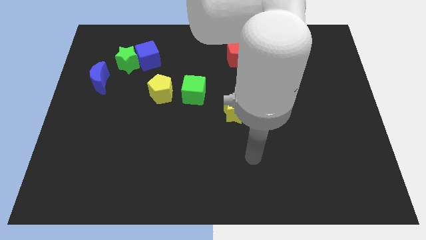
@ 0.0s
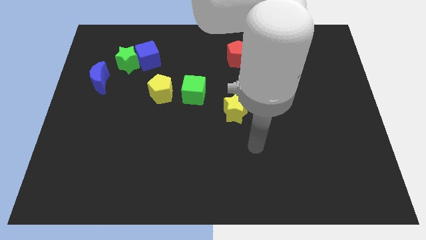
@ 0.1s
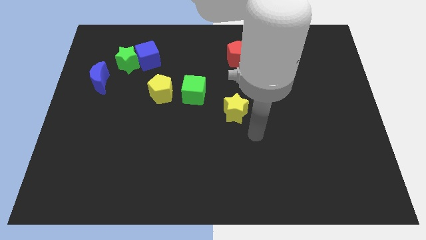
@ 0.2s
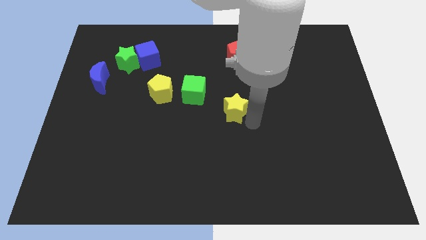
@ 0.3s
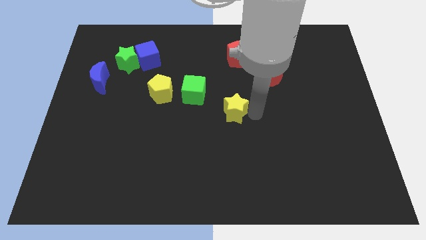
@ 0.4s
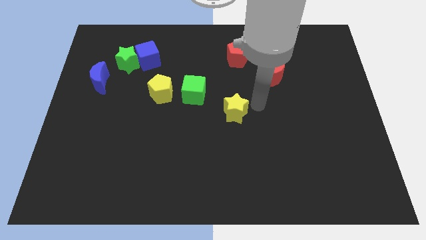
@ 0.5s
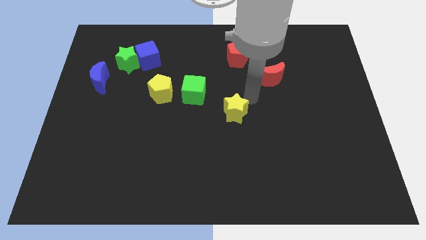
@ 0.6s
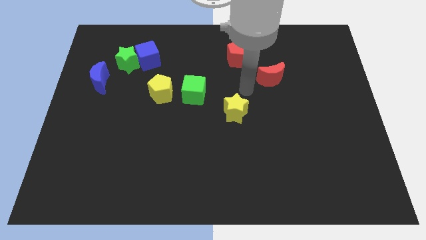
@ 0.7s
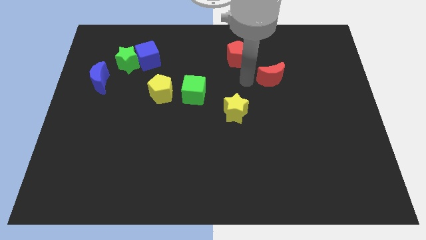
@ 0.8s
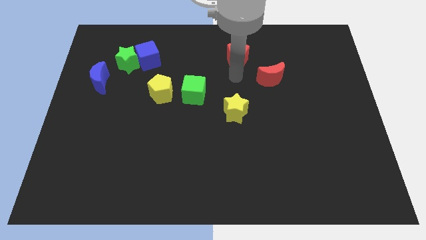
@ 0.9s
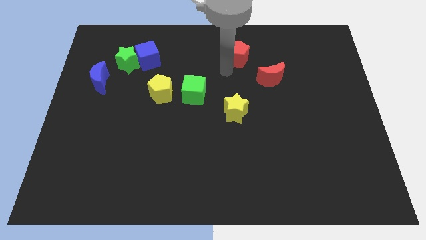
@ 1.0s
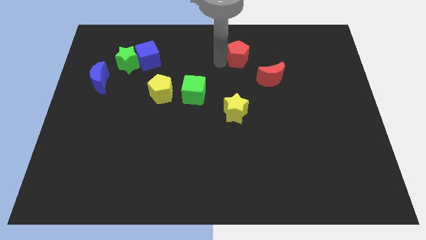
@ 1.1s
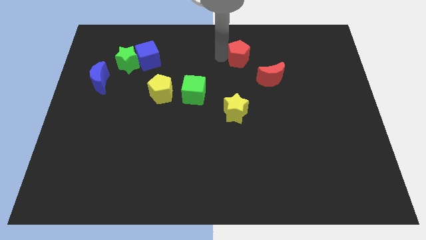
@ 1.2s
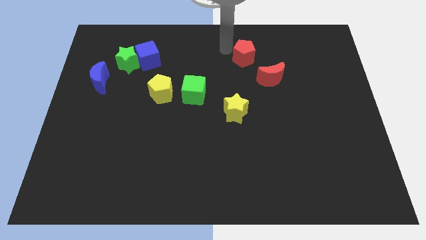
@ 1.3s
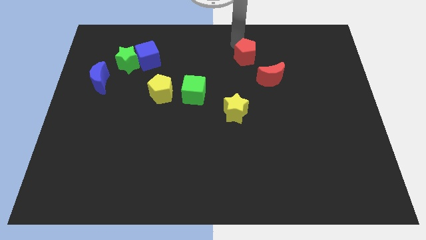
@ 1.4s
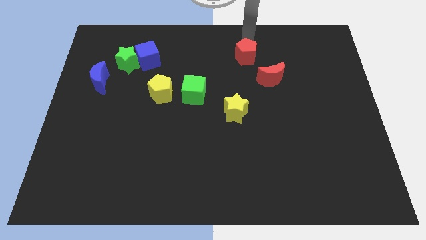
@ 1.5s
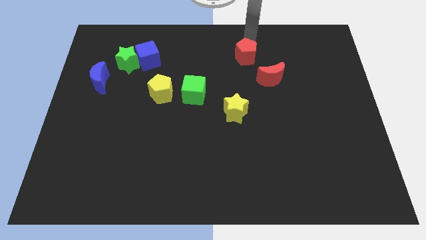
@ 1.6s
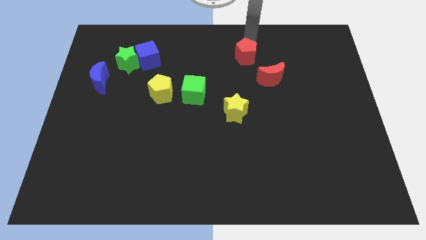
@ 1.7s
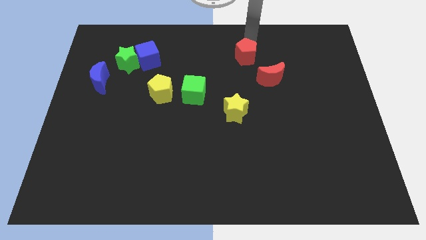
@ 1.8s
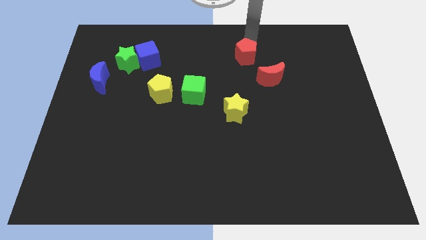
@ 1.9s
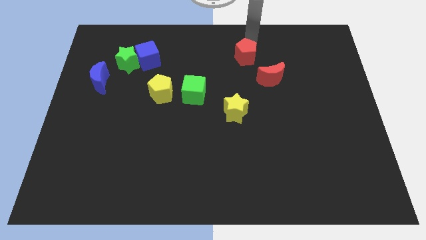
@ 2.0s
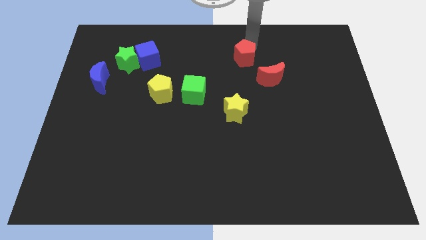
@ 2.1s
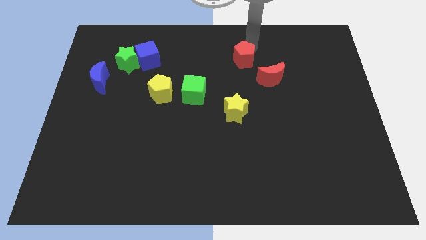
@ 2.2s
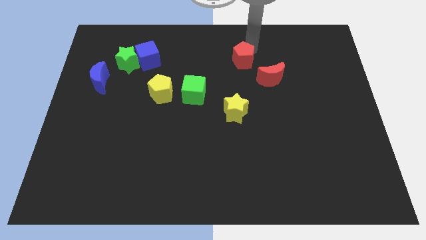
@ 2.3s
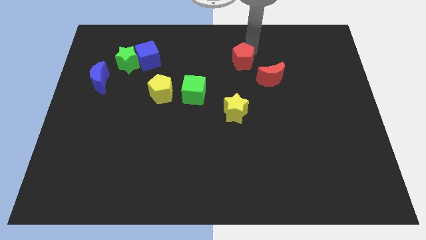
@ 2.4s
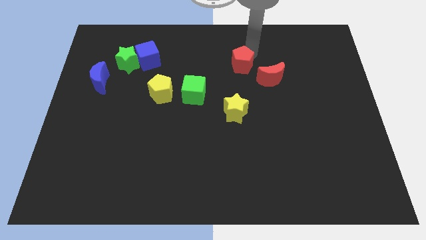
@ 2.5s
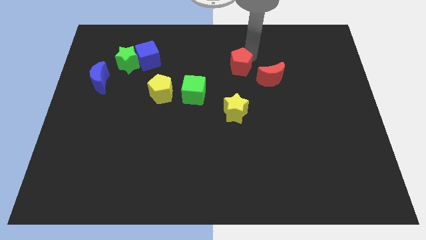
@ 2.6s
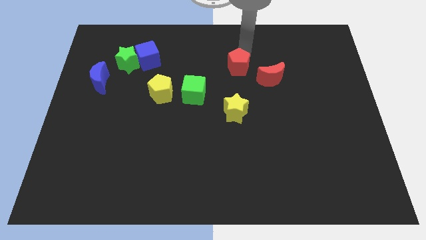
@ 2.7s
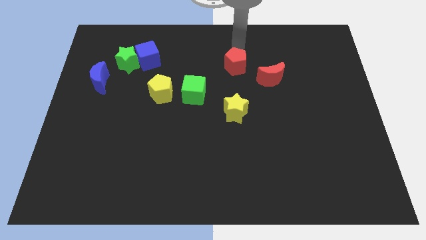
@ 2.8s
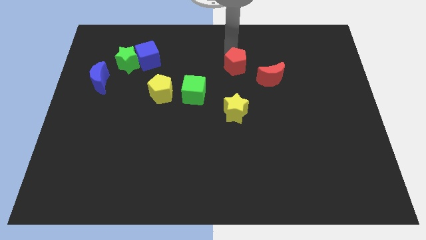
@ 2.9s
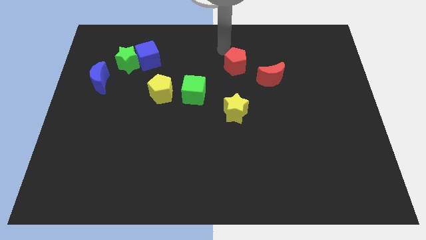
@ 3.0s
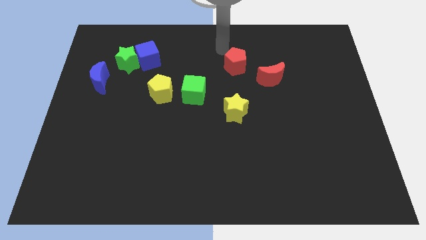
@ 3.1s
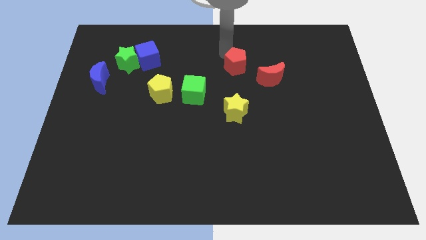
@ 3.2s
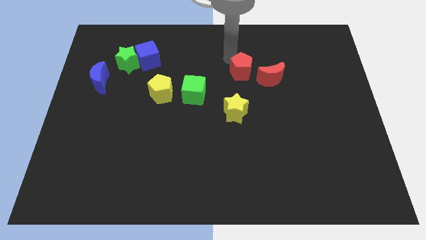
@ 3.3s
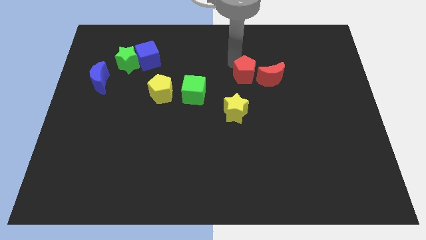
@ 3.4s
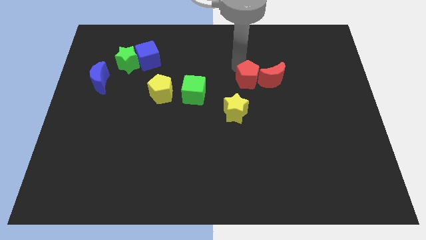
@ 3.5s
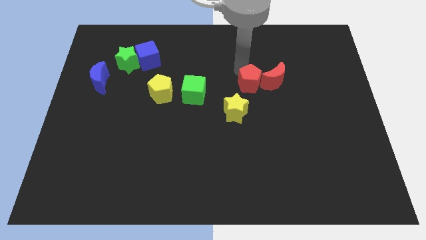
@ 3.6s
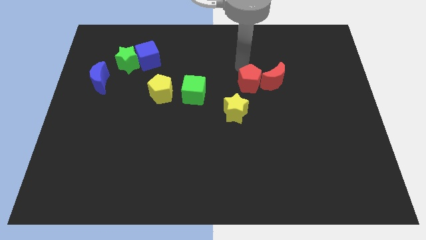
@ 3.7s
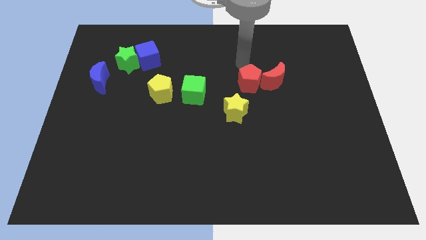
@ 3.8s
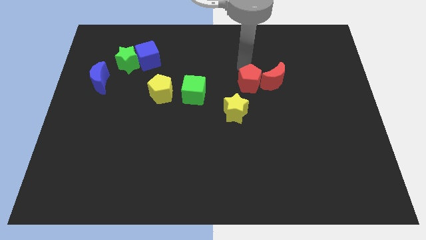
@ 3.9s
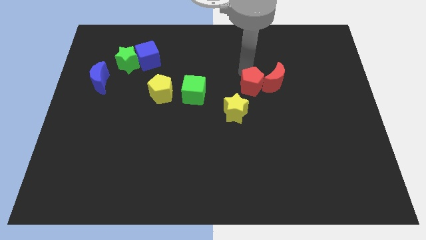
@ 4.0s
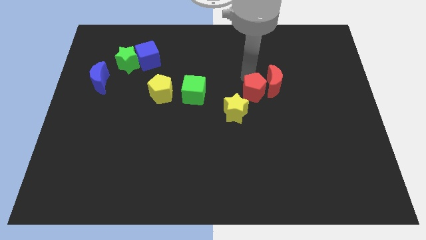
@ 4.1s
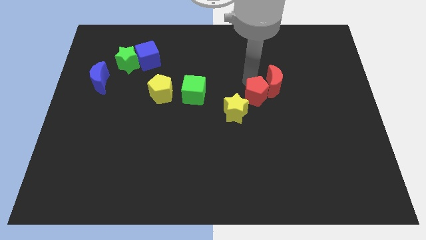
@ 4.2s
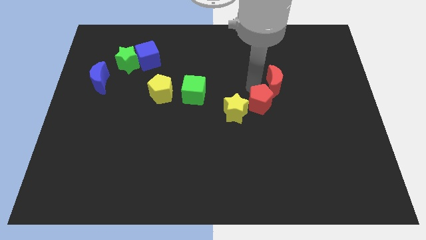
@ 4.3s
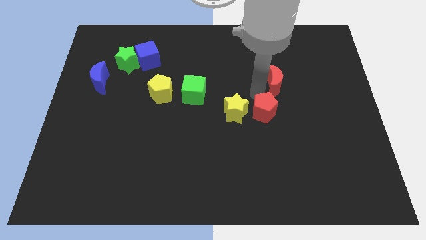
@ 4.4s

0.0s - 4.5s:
move the red pentagon to the bottom right of the yellow star

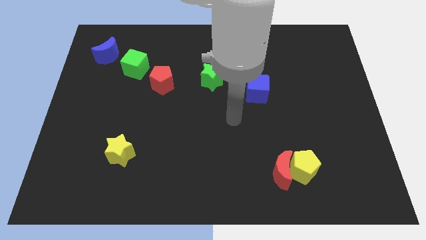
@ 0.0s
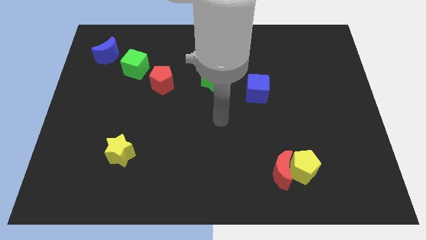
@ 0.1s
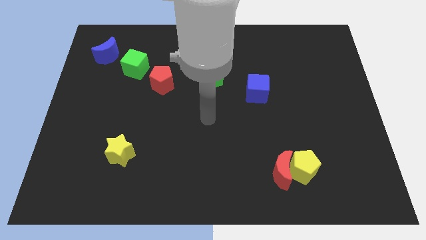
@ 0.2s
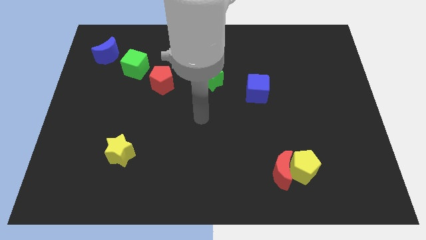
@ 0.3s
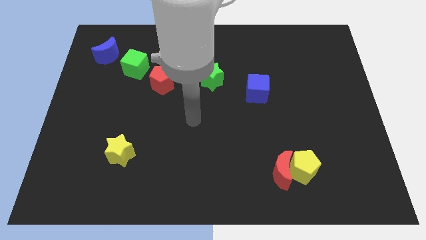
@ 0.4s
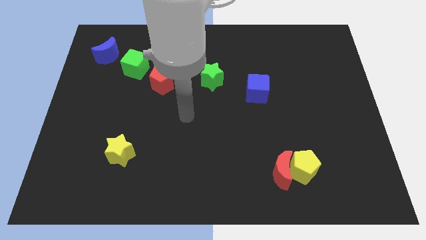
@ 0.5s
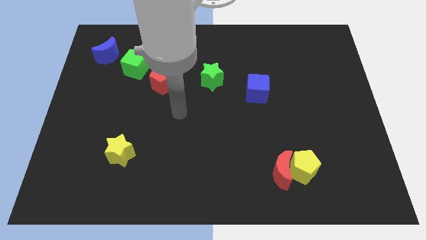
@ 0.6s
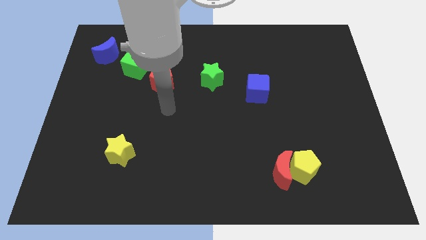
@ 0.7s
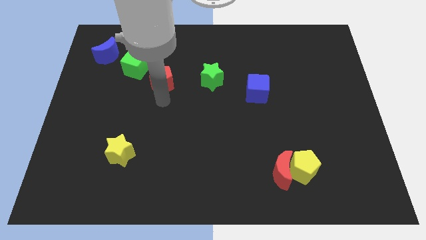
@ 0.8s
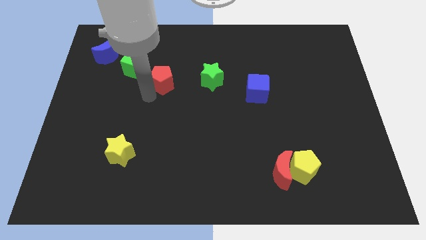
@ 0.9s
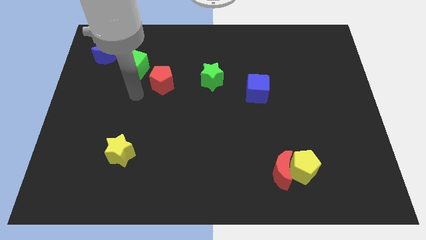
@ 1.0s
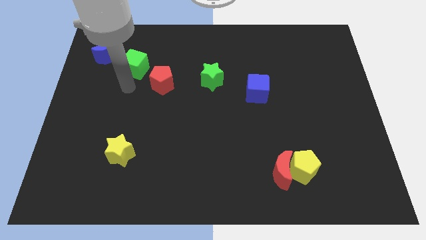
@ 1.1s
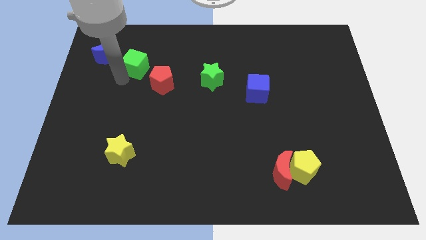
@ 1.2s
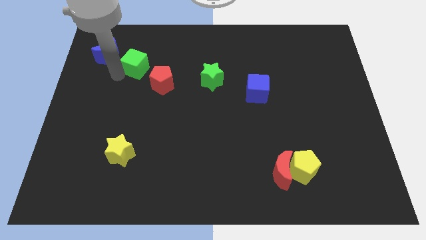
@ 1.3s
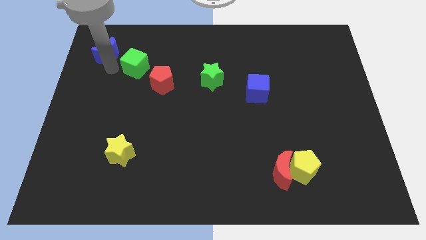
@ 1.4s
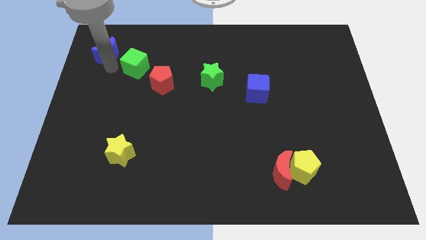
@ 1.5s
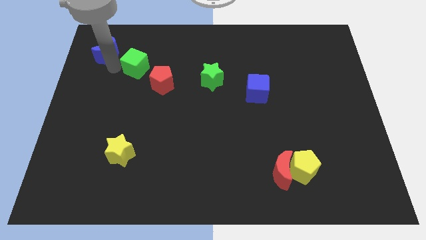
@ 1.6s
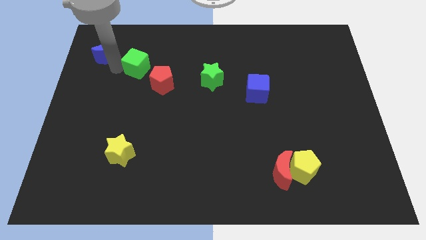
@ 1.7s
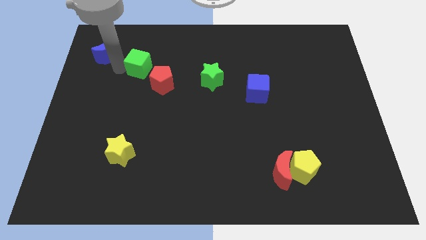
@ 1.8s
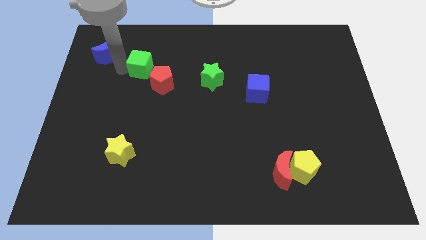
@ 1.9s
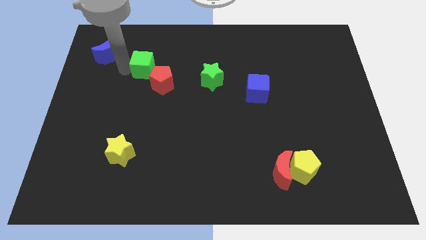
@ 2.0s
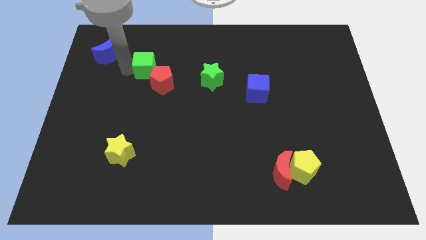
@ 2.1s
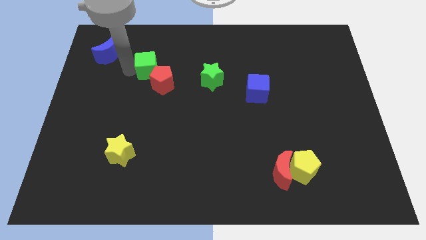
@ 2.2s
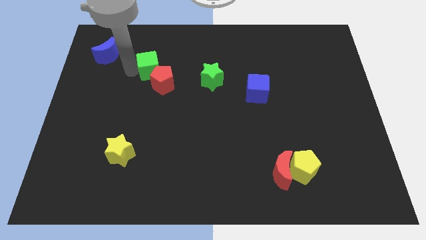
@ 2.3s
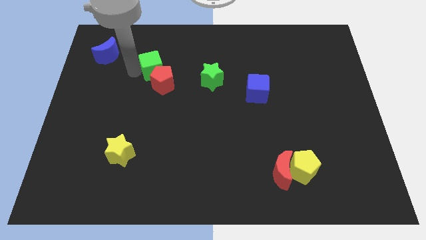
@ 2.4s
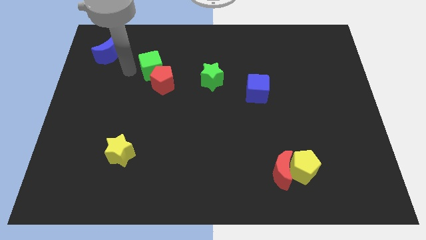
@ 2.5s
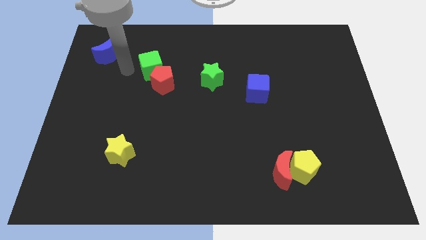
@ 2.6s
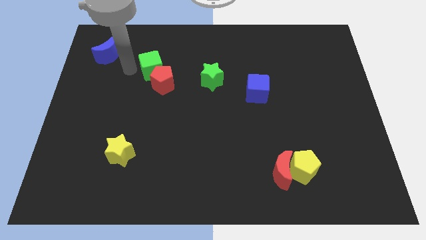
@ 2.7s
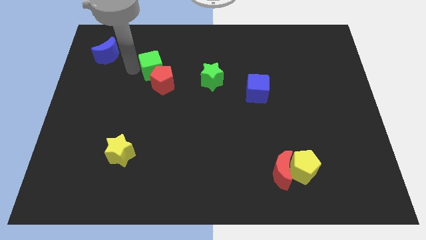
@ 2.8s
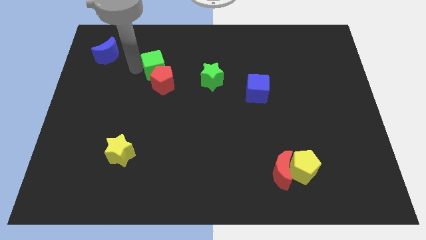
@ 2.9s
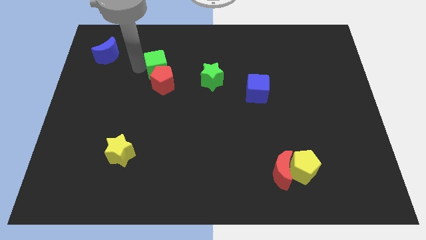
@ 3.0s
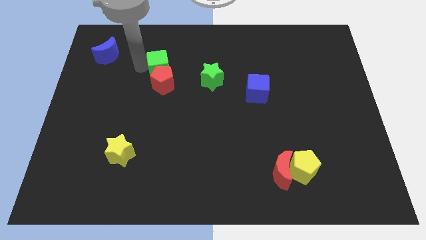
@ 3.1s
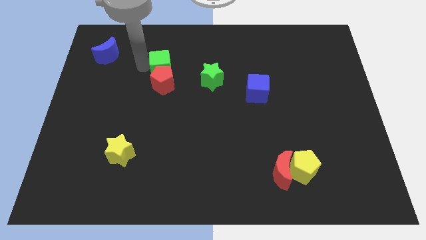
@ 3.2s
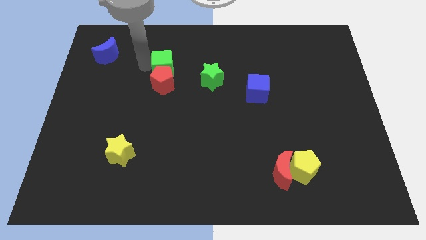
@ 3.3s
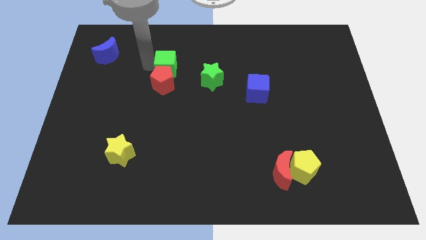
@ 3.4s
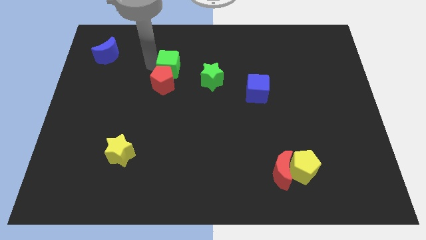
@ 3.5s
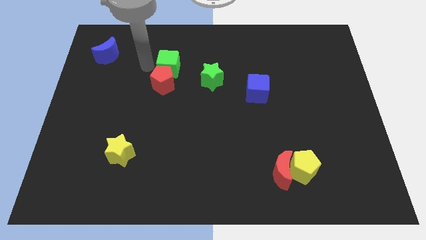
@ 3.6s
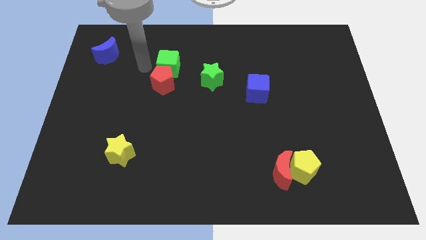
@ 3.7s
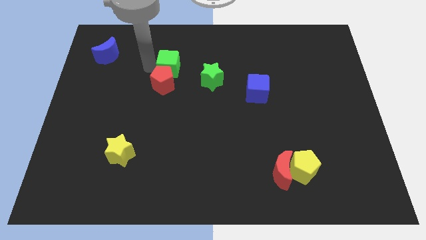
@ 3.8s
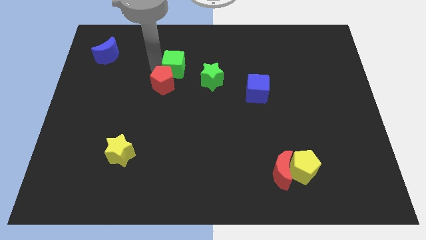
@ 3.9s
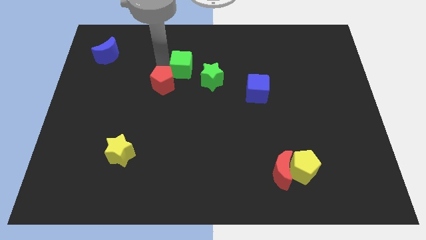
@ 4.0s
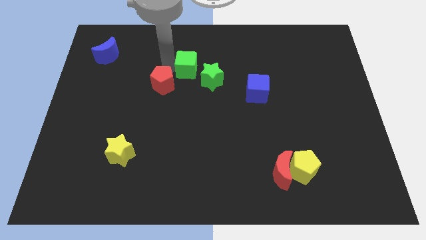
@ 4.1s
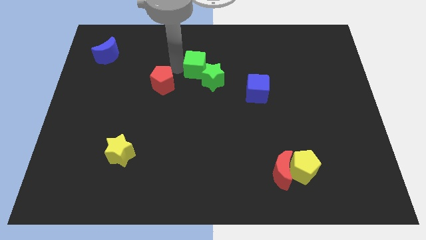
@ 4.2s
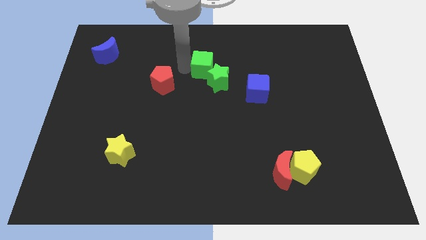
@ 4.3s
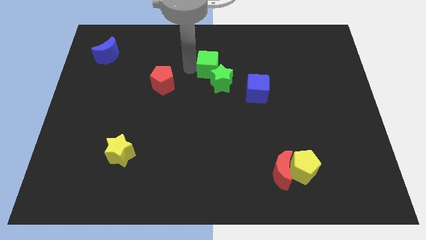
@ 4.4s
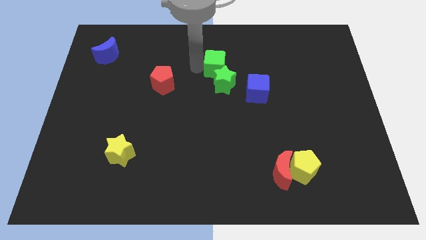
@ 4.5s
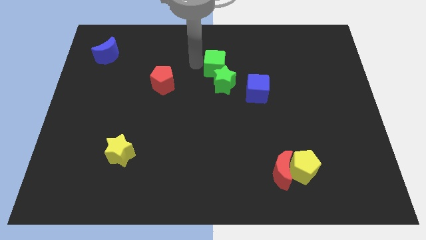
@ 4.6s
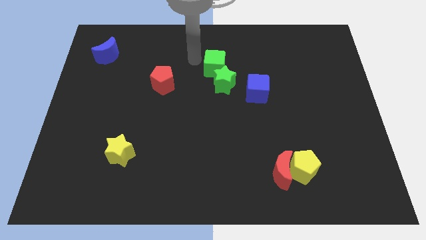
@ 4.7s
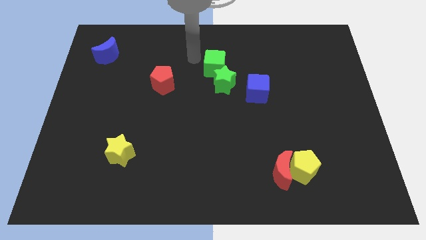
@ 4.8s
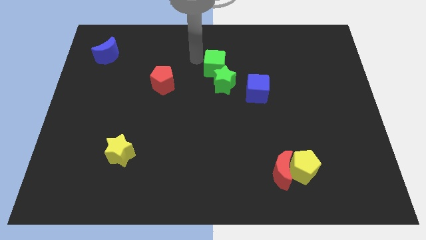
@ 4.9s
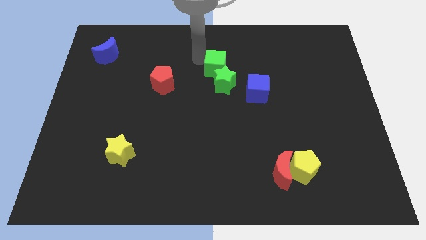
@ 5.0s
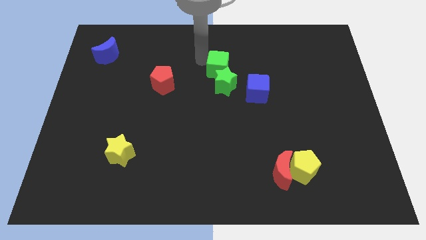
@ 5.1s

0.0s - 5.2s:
push the green cube to the top left side of the blue cube
